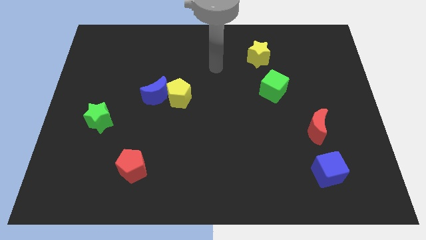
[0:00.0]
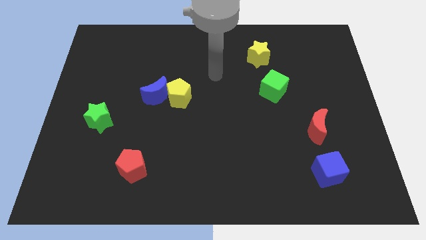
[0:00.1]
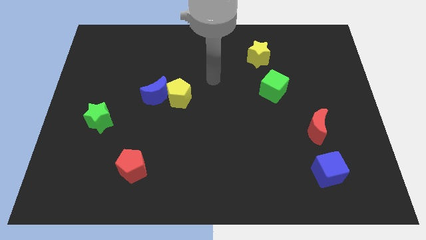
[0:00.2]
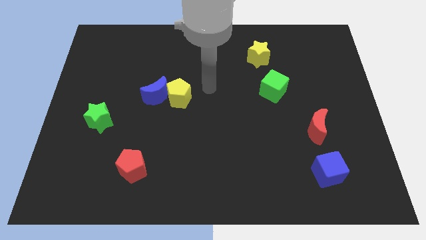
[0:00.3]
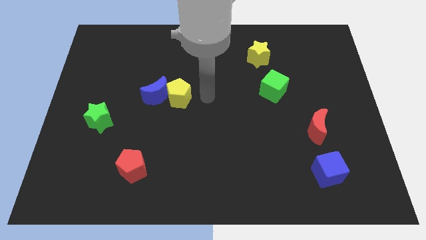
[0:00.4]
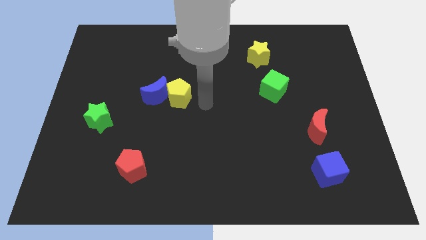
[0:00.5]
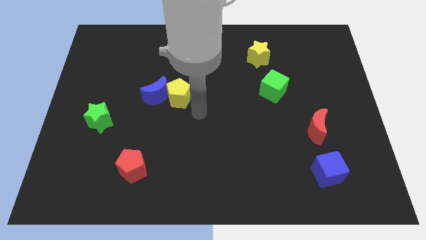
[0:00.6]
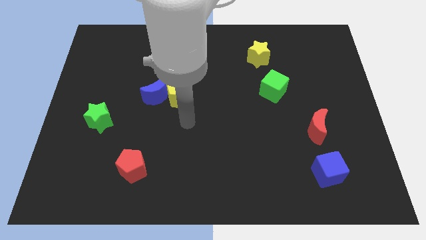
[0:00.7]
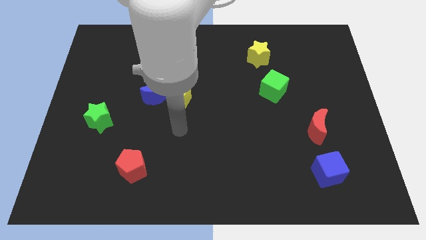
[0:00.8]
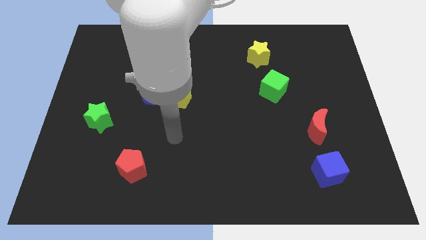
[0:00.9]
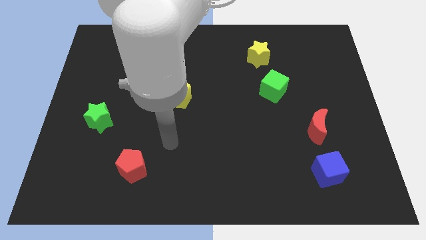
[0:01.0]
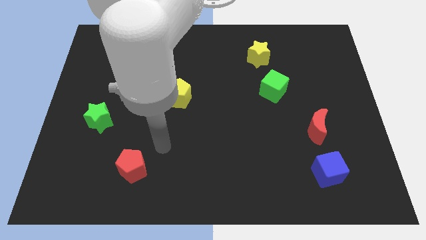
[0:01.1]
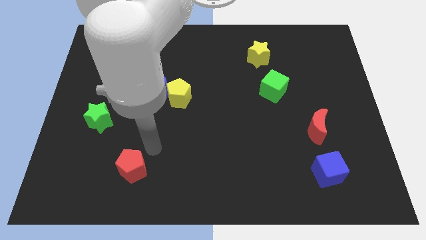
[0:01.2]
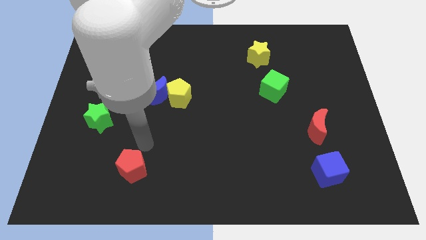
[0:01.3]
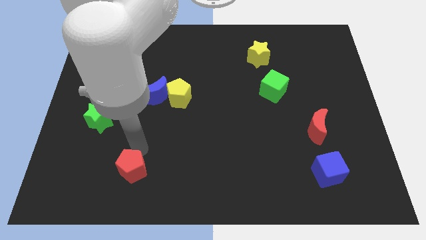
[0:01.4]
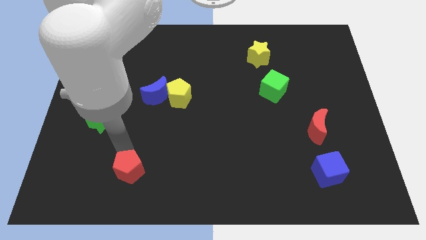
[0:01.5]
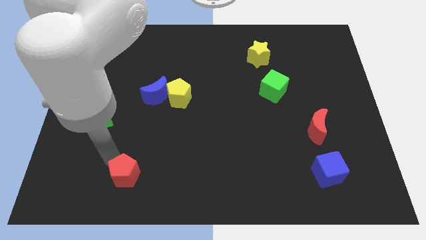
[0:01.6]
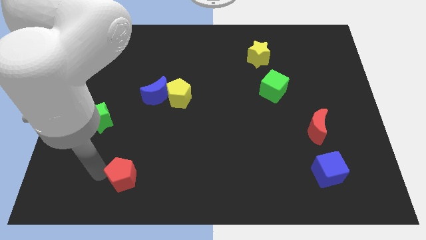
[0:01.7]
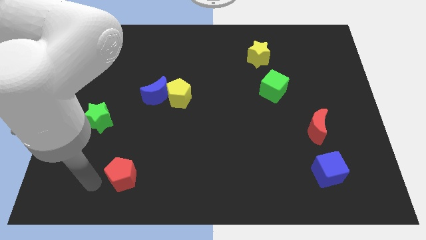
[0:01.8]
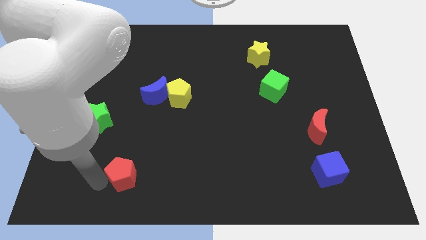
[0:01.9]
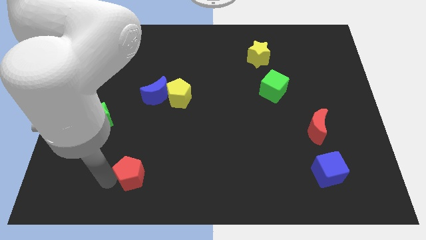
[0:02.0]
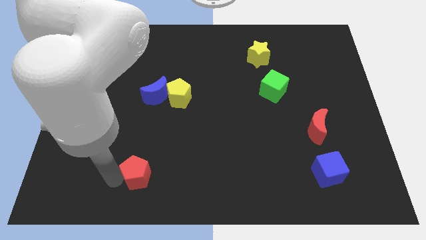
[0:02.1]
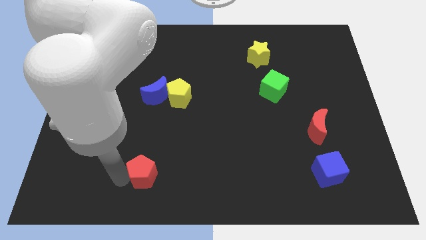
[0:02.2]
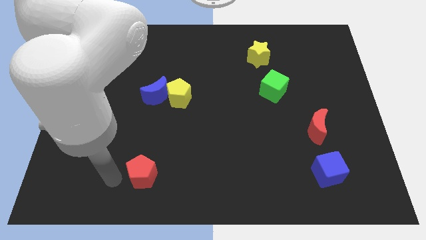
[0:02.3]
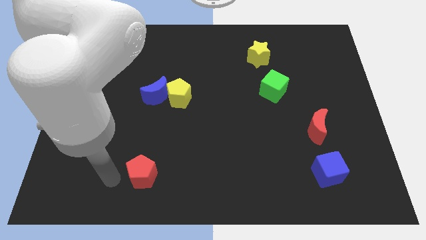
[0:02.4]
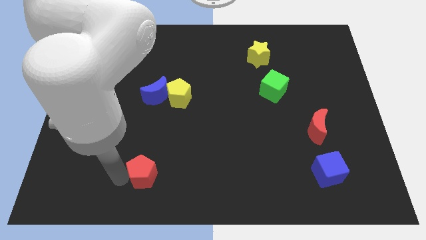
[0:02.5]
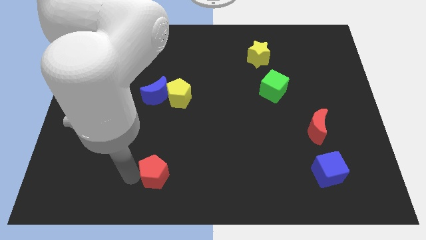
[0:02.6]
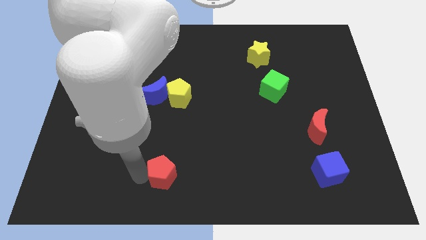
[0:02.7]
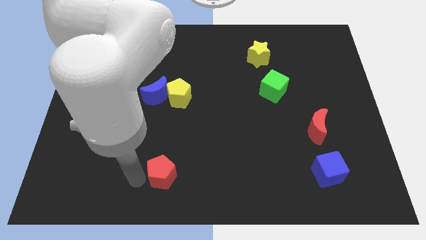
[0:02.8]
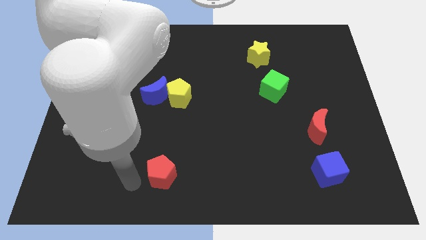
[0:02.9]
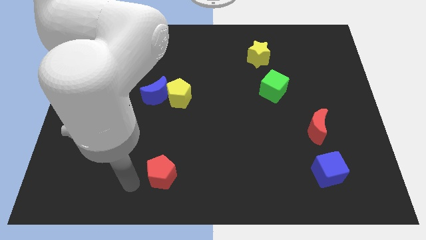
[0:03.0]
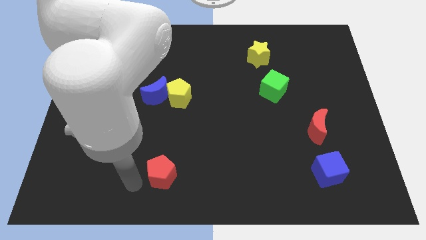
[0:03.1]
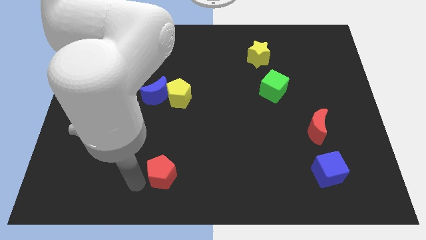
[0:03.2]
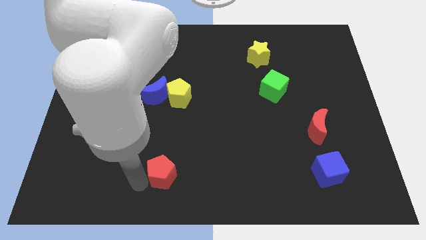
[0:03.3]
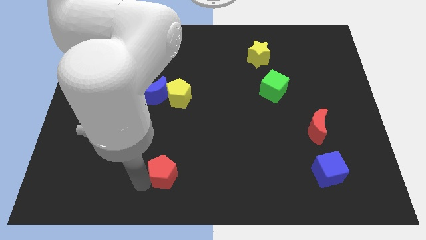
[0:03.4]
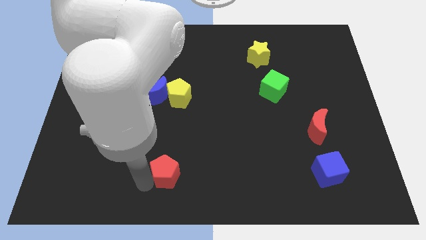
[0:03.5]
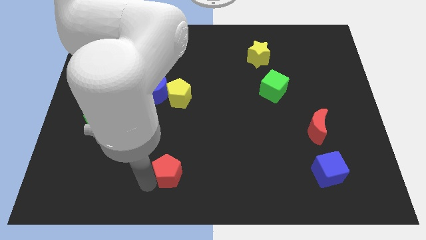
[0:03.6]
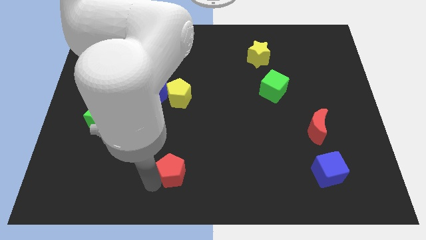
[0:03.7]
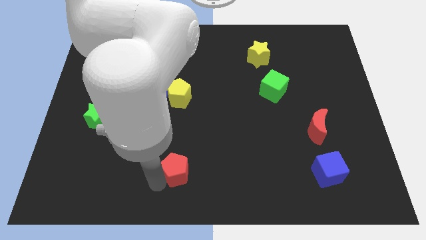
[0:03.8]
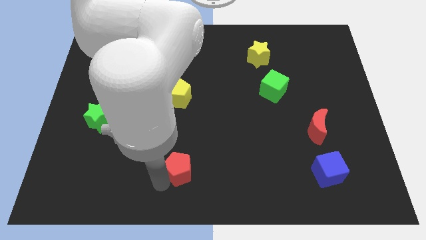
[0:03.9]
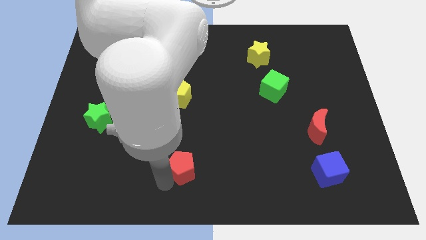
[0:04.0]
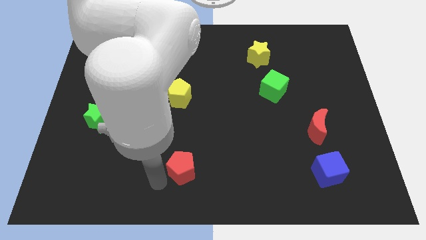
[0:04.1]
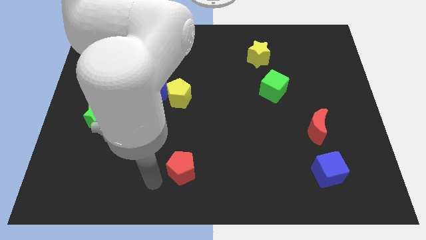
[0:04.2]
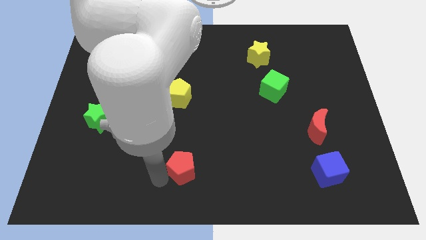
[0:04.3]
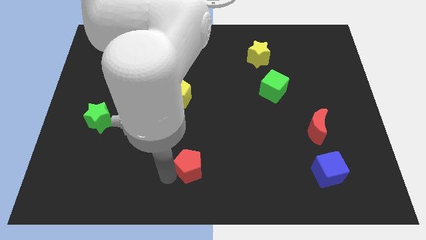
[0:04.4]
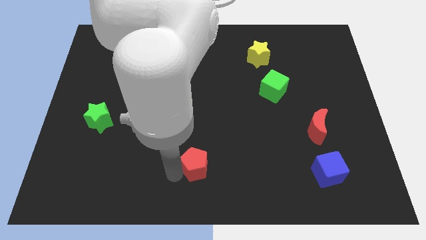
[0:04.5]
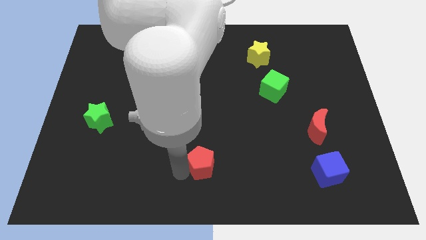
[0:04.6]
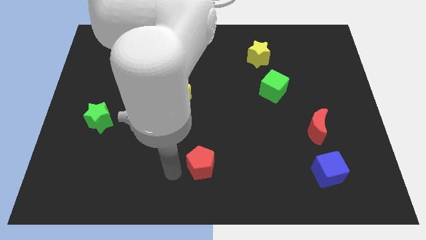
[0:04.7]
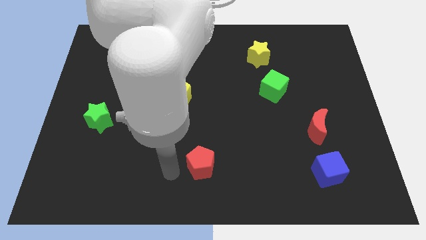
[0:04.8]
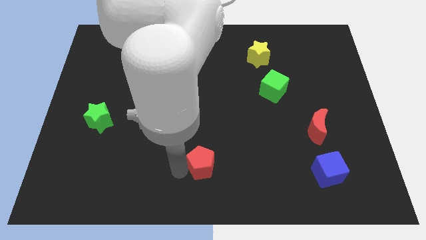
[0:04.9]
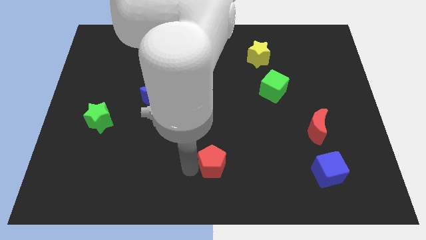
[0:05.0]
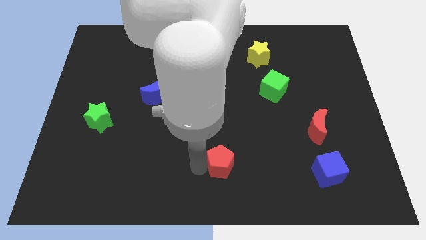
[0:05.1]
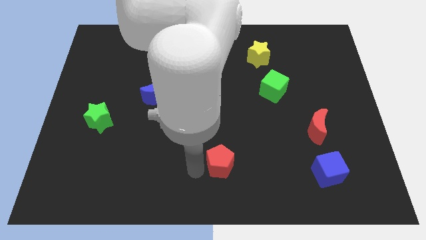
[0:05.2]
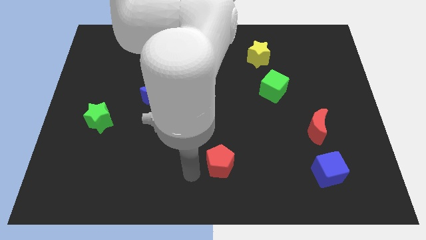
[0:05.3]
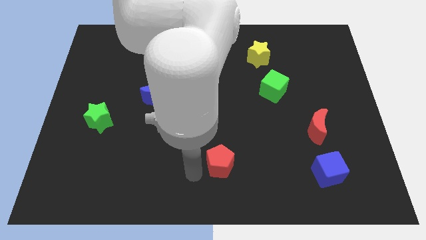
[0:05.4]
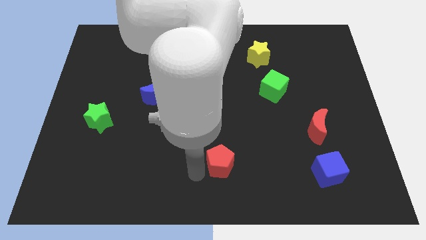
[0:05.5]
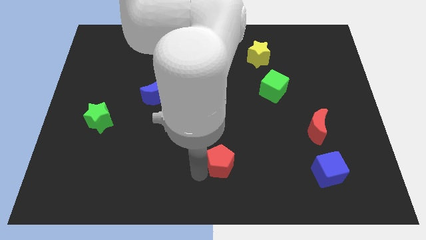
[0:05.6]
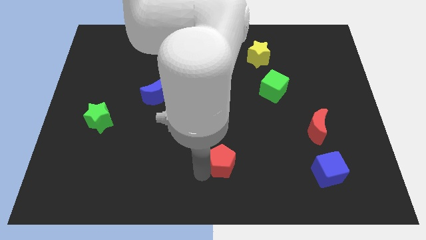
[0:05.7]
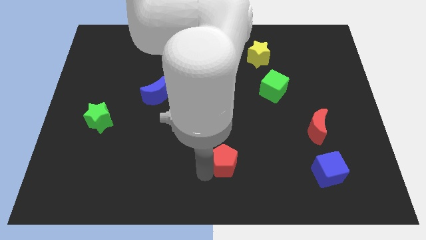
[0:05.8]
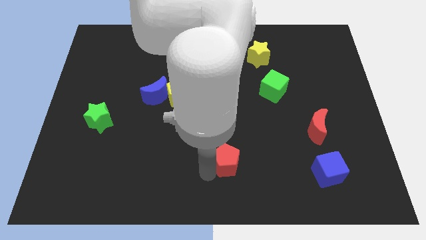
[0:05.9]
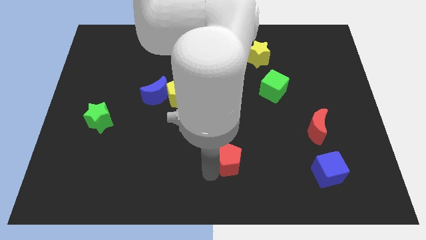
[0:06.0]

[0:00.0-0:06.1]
slide the red pentagon to the right

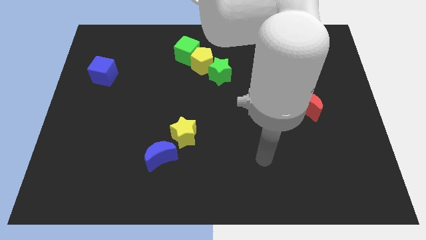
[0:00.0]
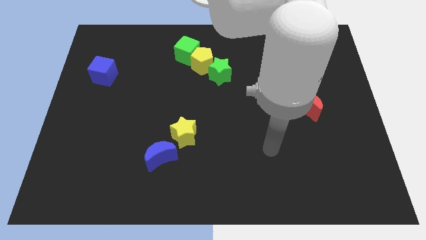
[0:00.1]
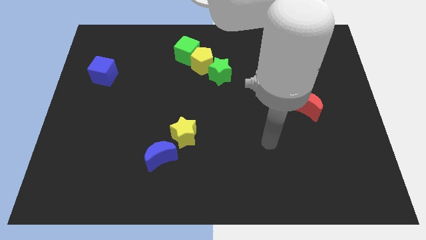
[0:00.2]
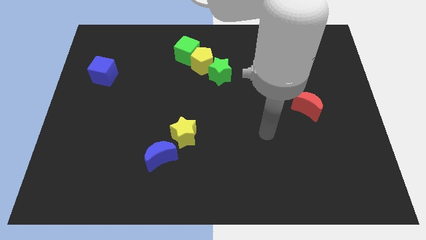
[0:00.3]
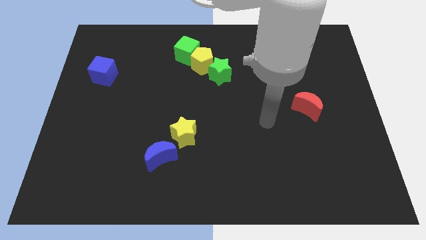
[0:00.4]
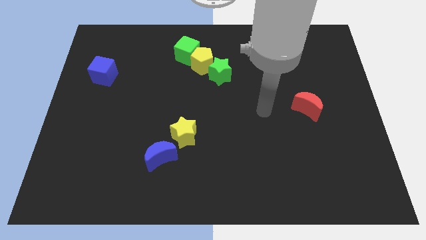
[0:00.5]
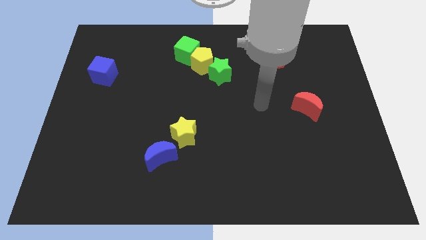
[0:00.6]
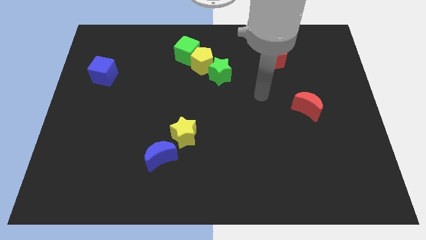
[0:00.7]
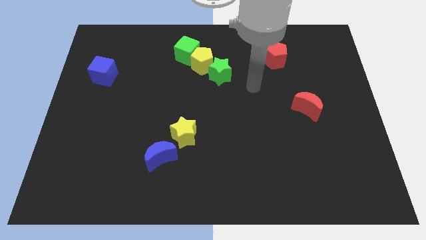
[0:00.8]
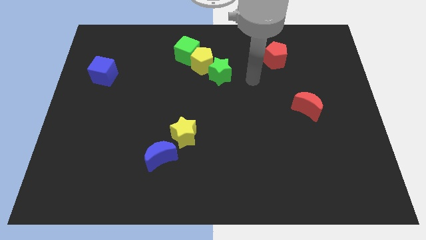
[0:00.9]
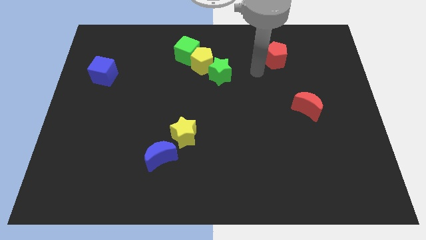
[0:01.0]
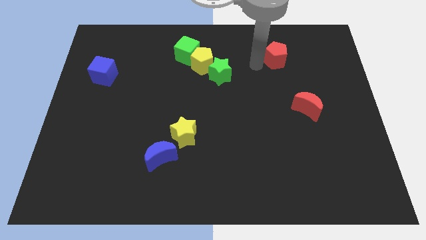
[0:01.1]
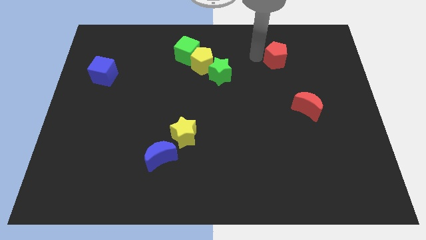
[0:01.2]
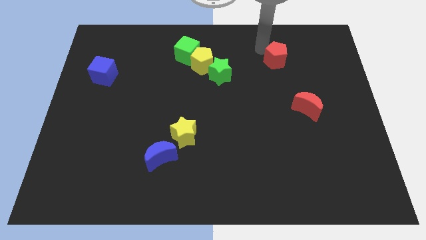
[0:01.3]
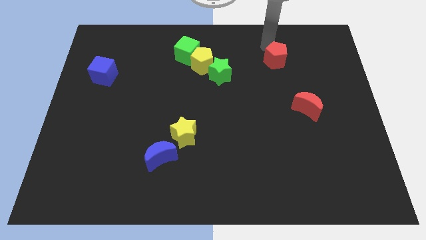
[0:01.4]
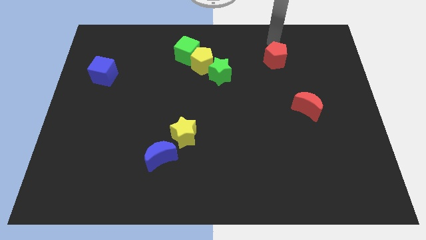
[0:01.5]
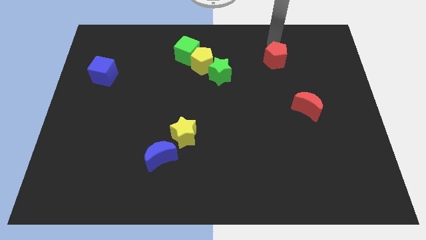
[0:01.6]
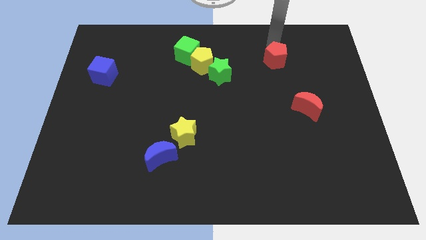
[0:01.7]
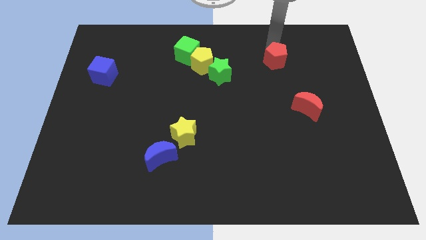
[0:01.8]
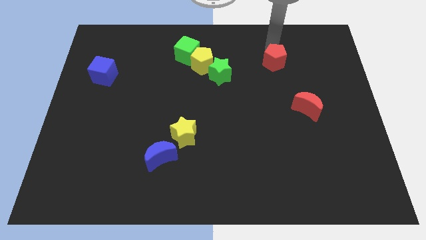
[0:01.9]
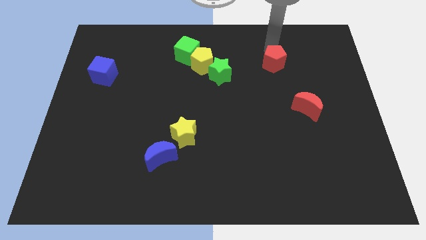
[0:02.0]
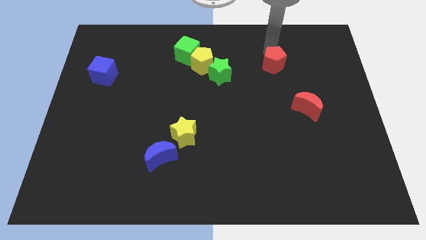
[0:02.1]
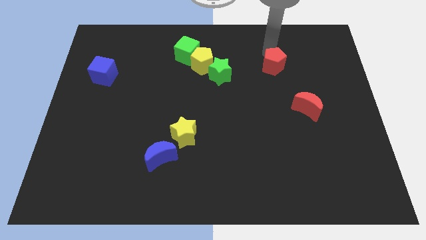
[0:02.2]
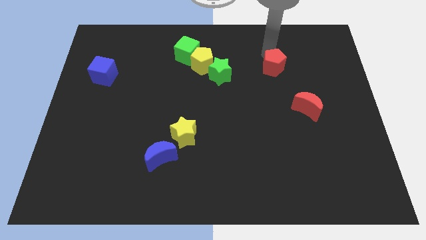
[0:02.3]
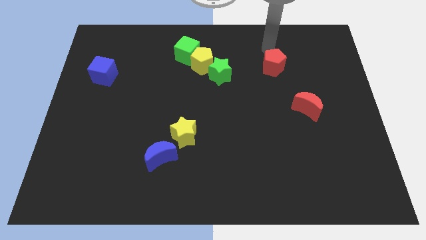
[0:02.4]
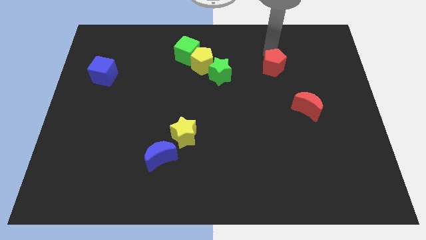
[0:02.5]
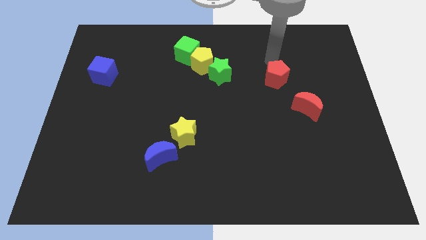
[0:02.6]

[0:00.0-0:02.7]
move the red pentagon down slightly
